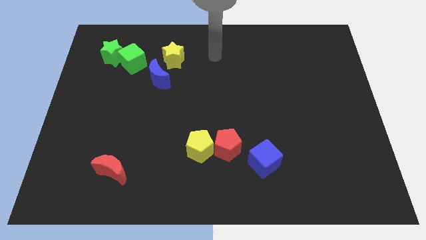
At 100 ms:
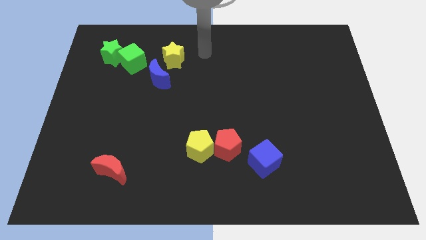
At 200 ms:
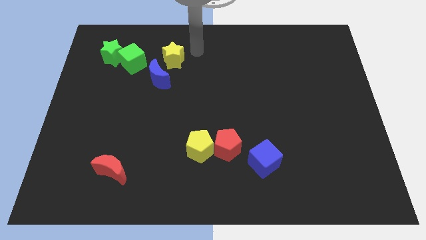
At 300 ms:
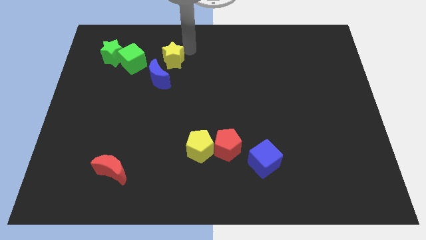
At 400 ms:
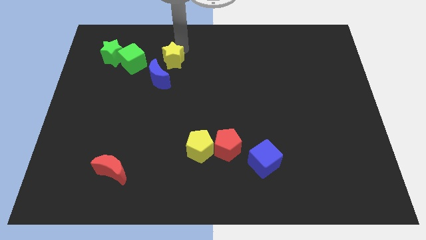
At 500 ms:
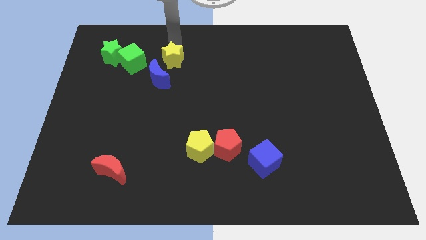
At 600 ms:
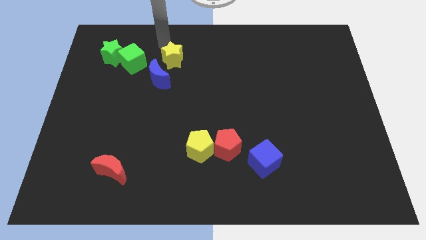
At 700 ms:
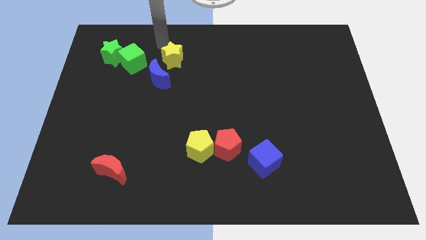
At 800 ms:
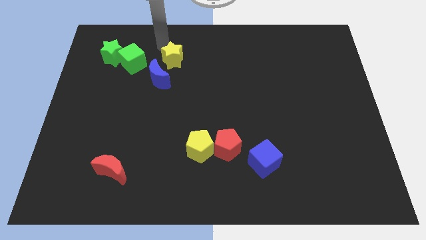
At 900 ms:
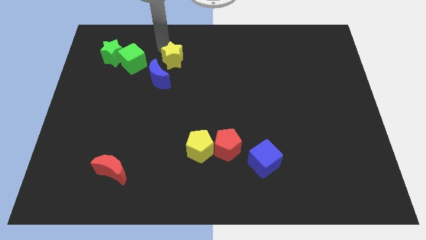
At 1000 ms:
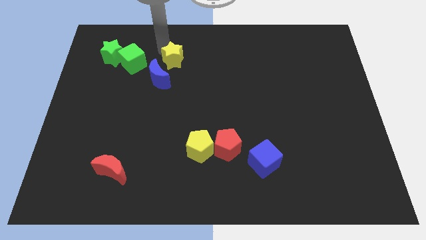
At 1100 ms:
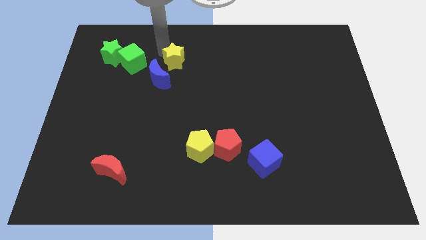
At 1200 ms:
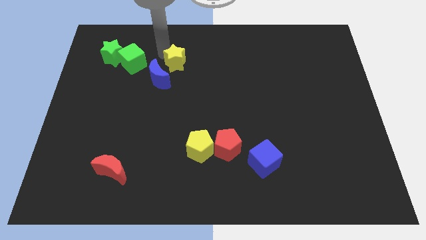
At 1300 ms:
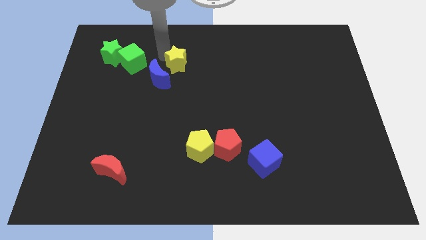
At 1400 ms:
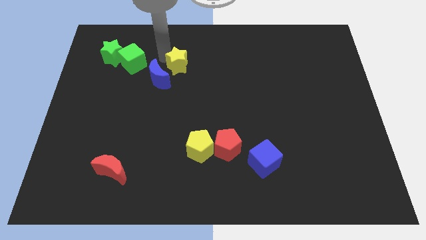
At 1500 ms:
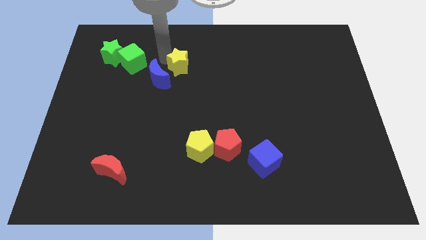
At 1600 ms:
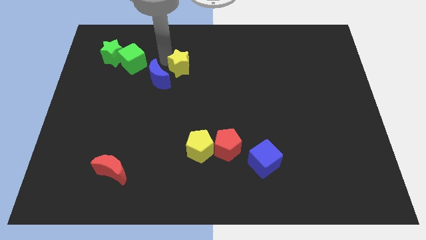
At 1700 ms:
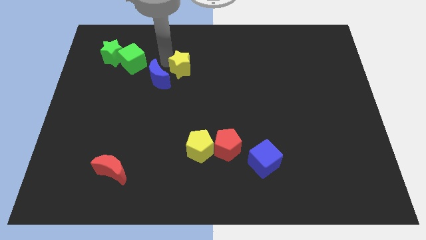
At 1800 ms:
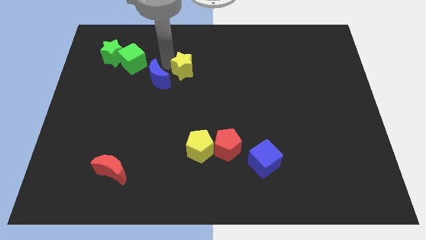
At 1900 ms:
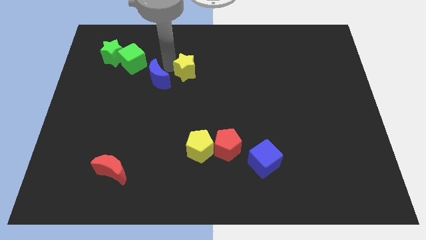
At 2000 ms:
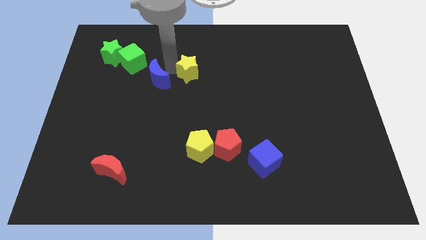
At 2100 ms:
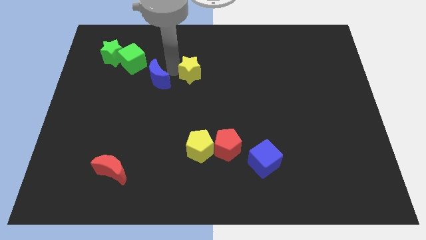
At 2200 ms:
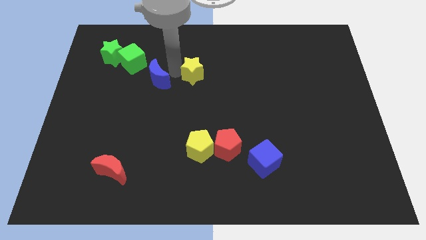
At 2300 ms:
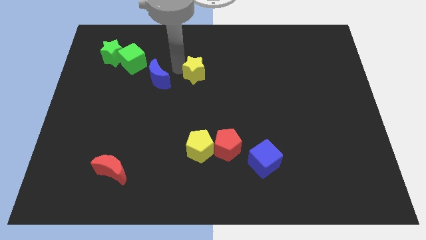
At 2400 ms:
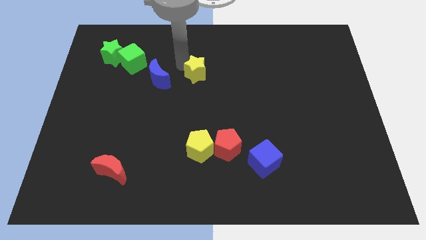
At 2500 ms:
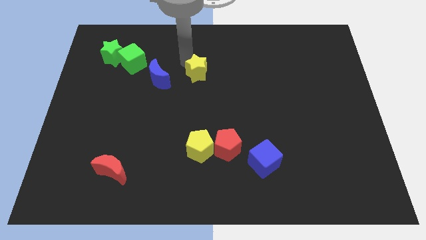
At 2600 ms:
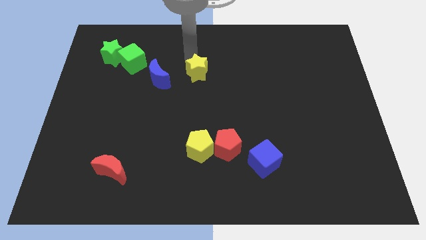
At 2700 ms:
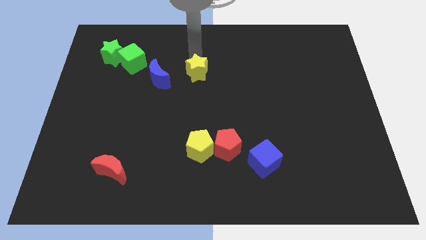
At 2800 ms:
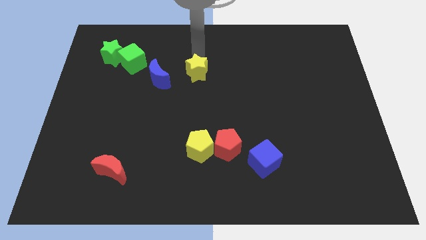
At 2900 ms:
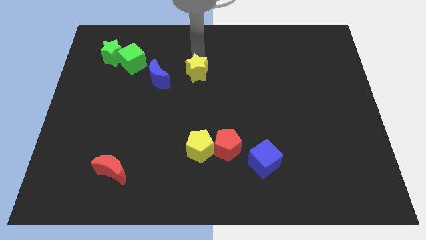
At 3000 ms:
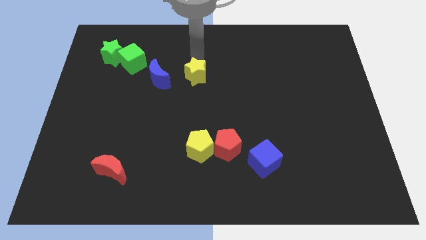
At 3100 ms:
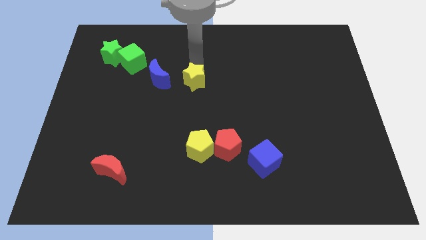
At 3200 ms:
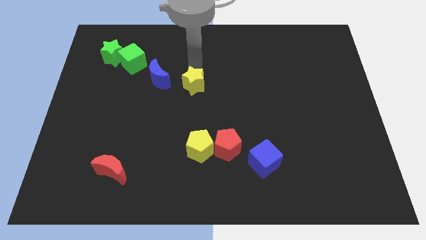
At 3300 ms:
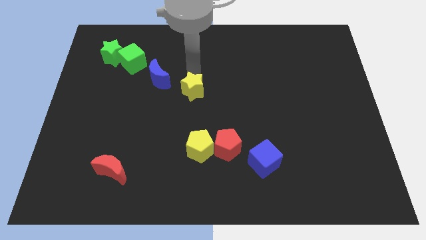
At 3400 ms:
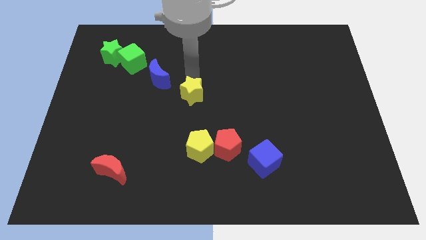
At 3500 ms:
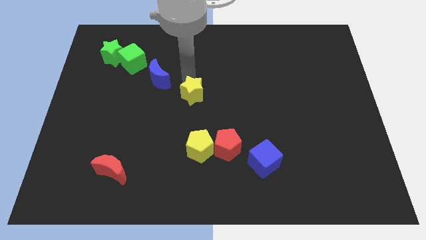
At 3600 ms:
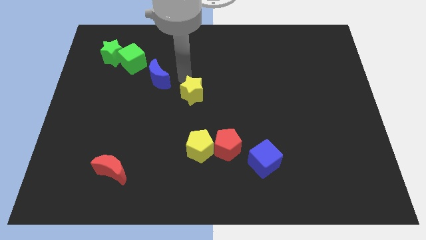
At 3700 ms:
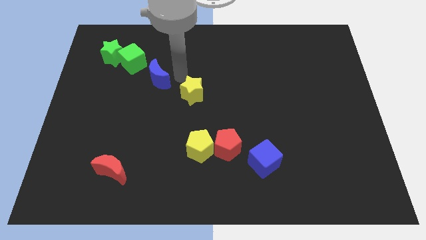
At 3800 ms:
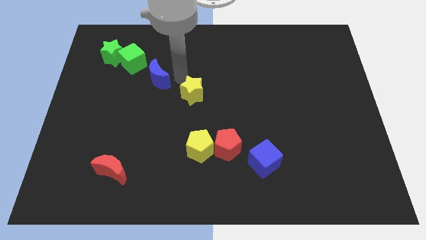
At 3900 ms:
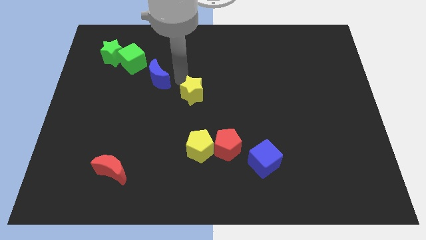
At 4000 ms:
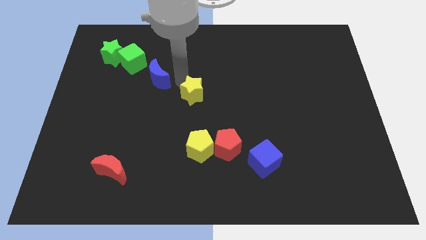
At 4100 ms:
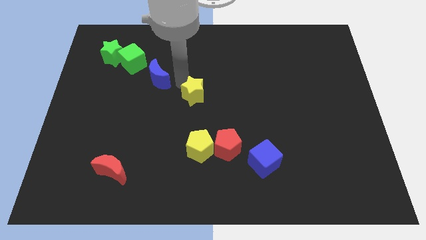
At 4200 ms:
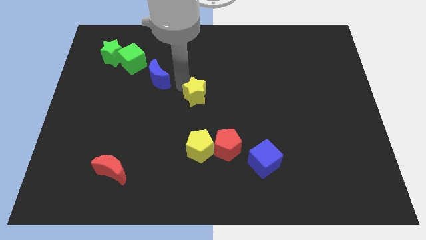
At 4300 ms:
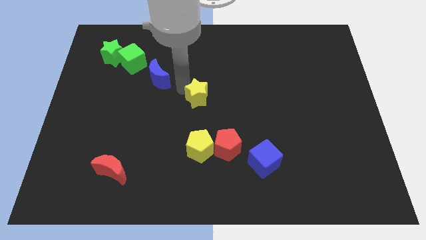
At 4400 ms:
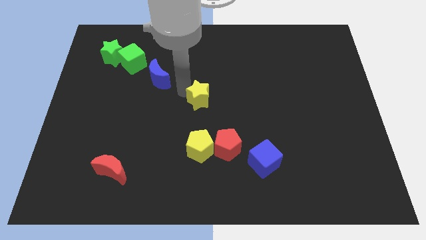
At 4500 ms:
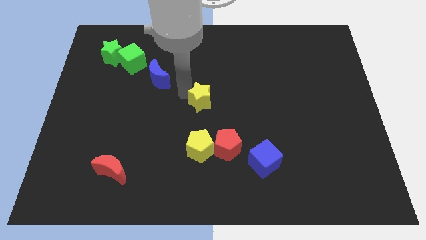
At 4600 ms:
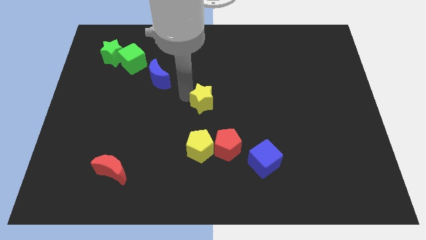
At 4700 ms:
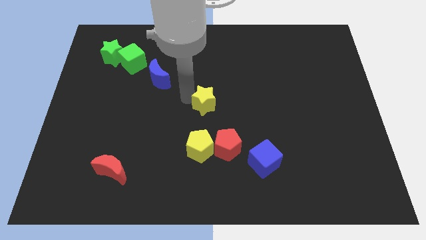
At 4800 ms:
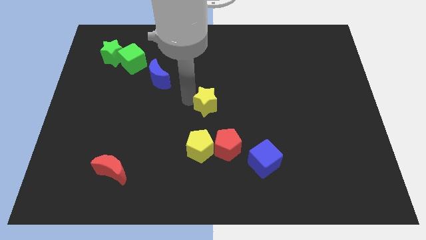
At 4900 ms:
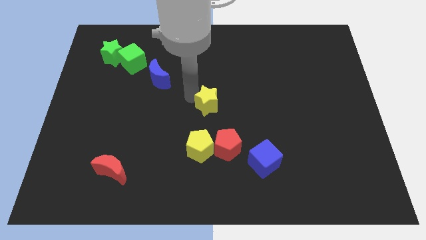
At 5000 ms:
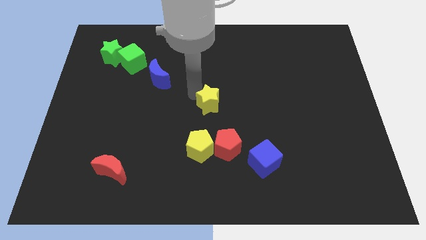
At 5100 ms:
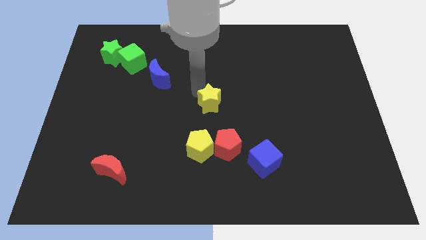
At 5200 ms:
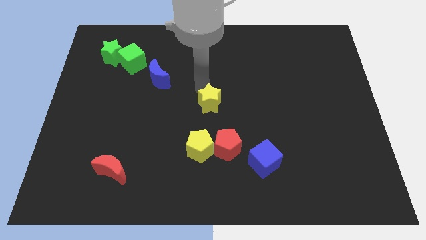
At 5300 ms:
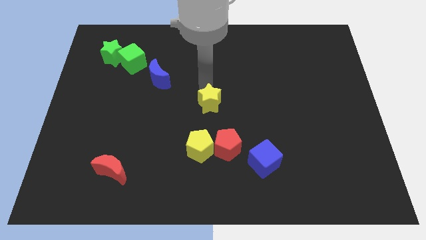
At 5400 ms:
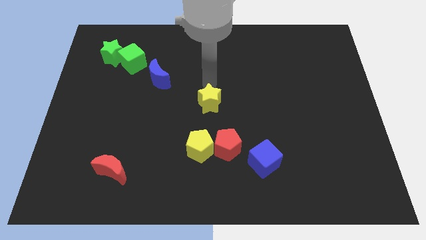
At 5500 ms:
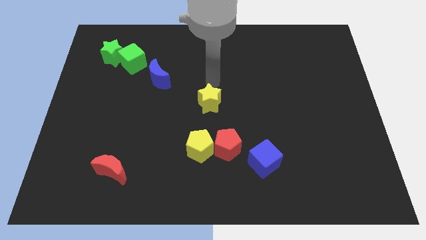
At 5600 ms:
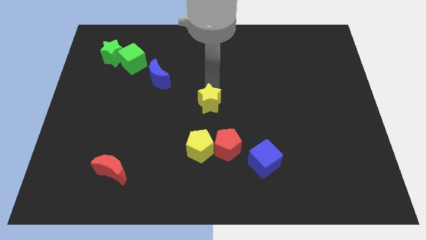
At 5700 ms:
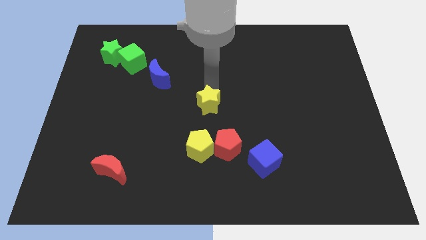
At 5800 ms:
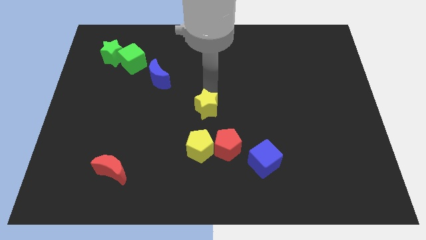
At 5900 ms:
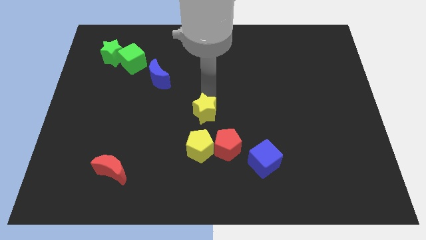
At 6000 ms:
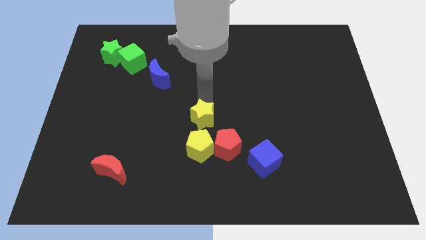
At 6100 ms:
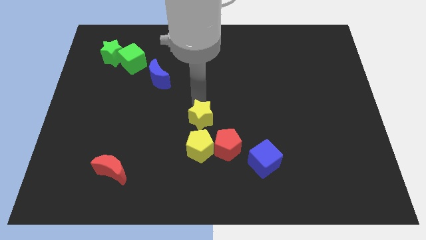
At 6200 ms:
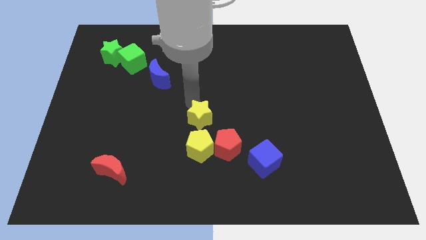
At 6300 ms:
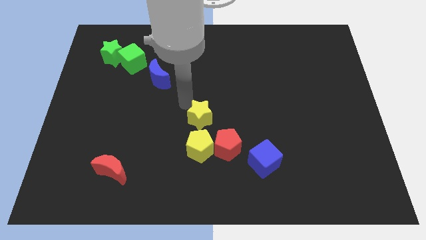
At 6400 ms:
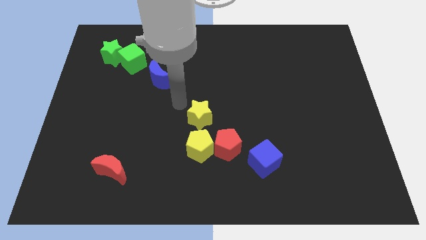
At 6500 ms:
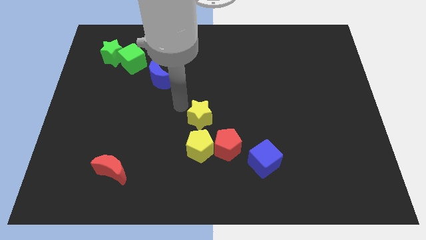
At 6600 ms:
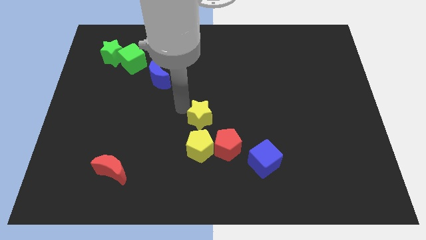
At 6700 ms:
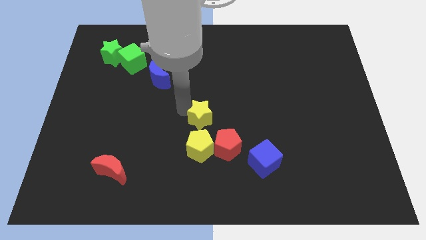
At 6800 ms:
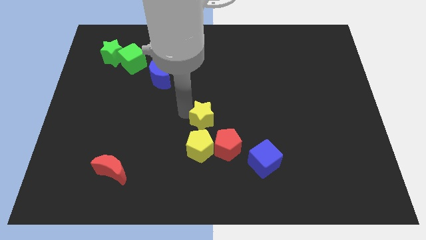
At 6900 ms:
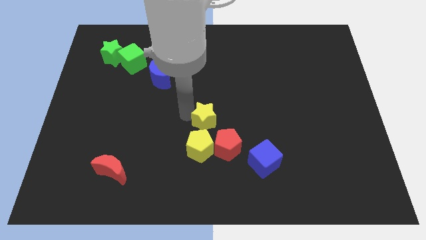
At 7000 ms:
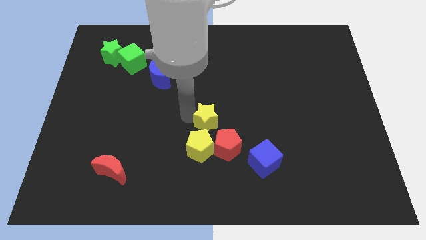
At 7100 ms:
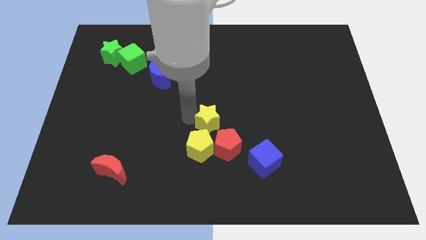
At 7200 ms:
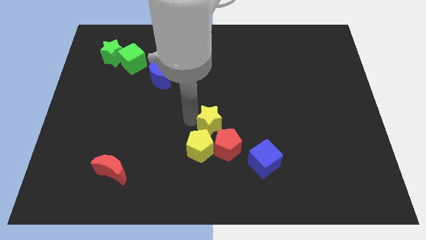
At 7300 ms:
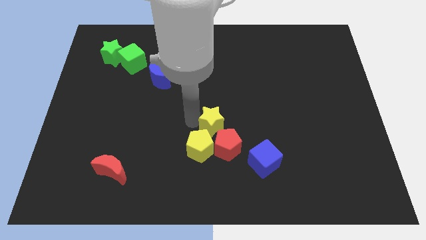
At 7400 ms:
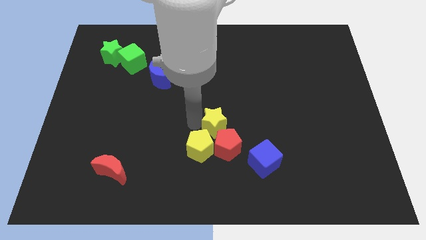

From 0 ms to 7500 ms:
slide the yellow star to the red pentagon
